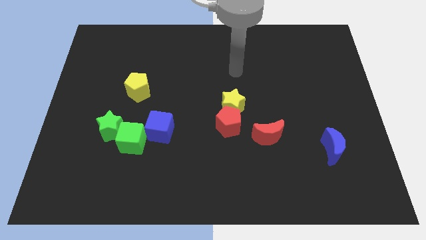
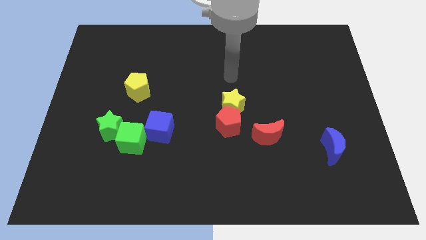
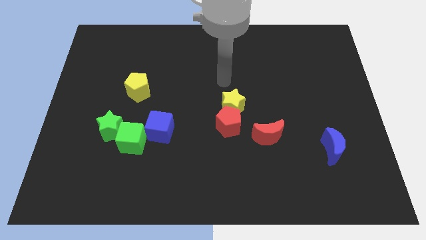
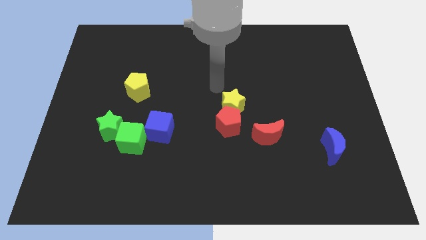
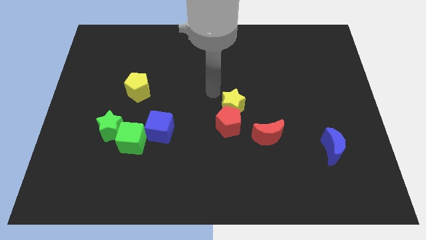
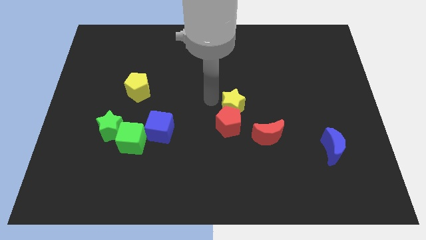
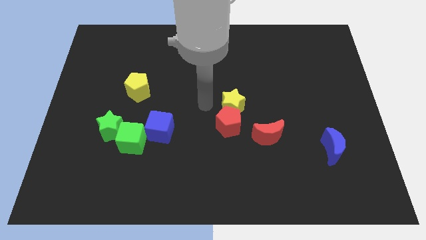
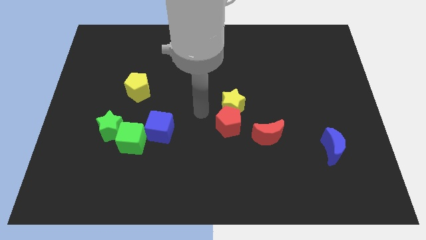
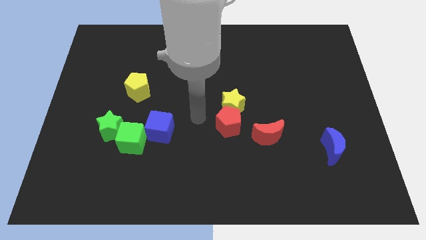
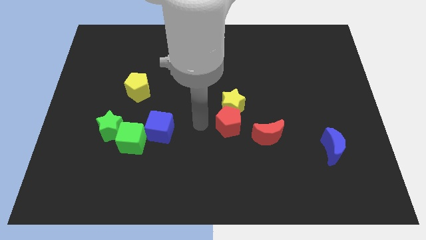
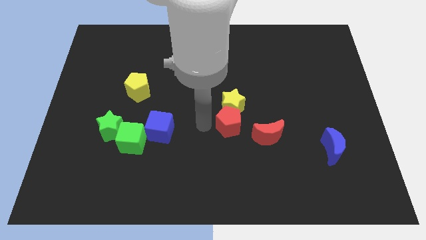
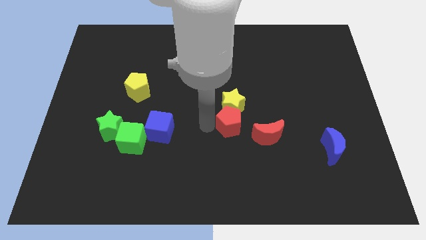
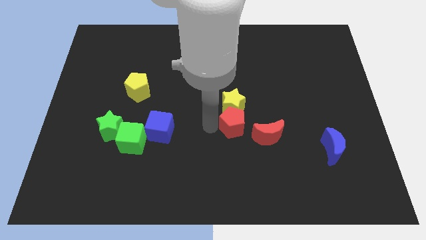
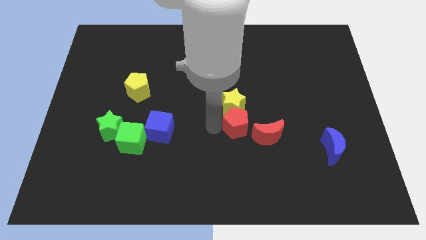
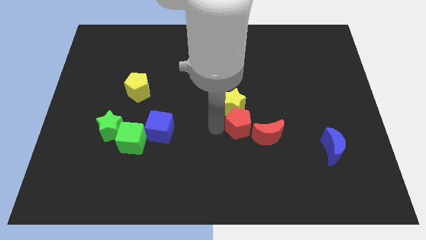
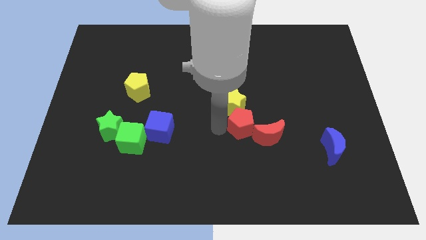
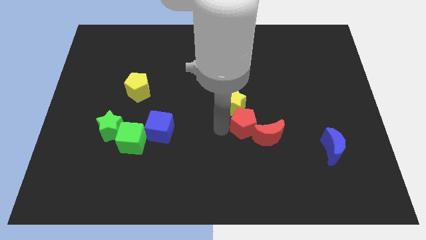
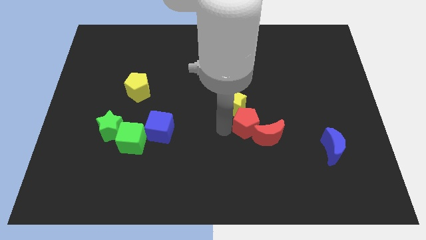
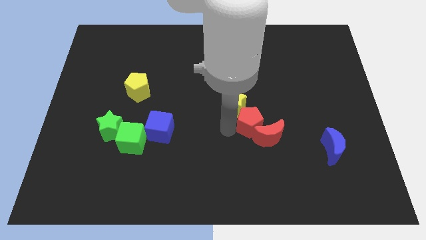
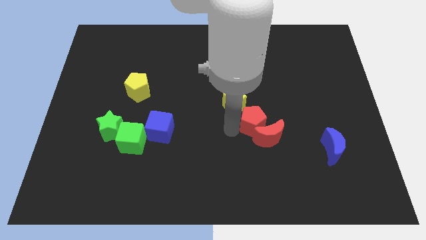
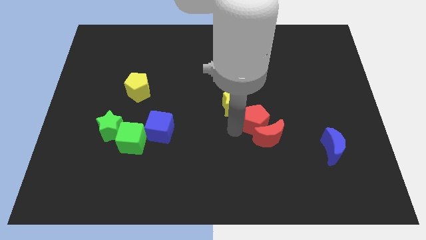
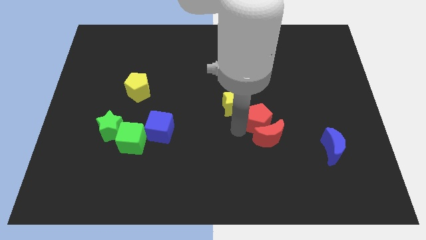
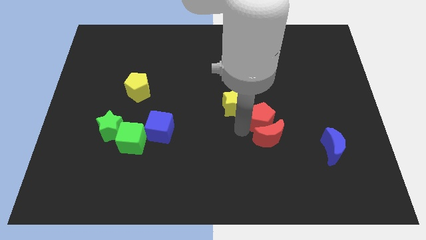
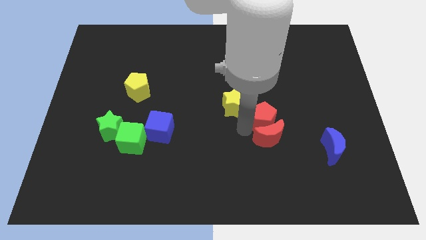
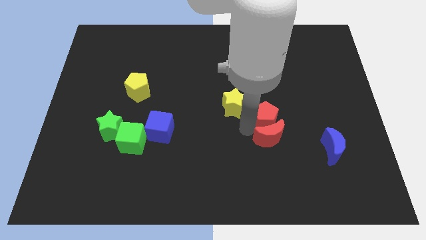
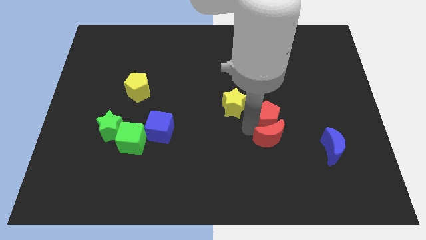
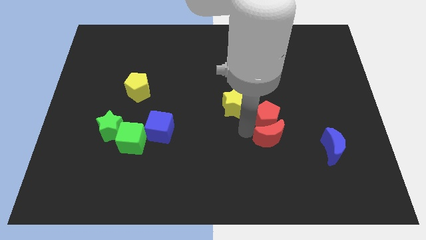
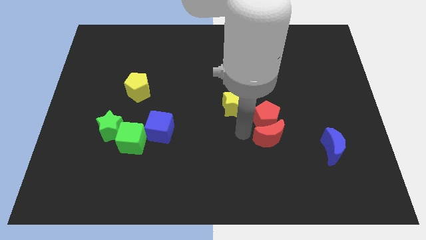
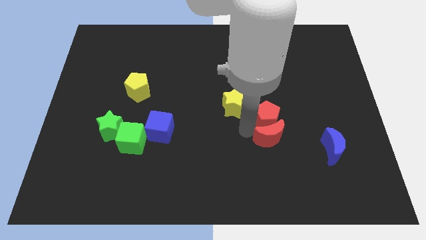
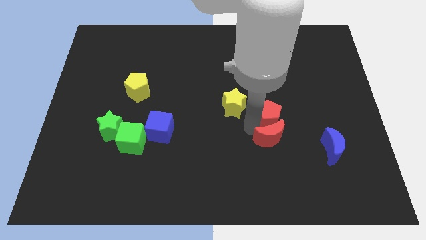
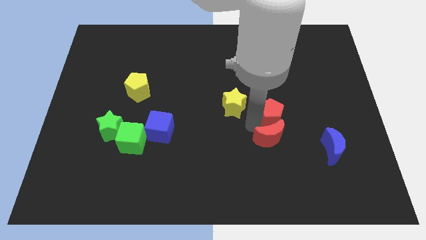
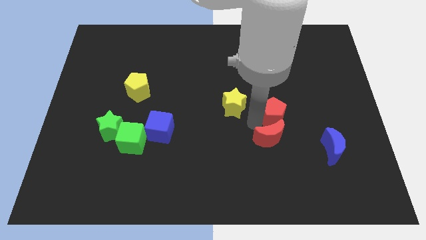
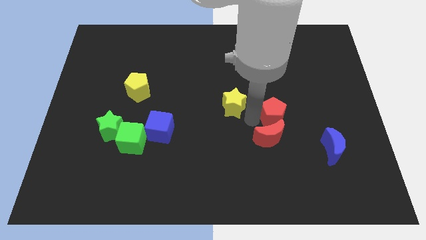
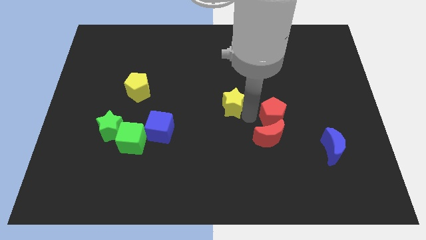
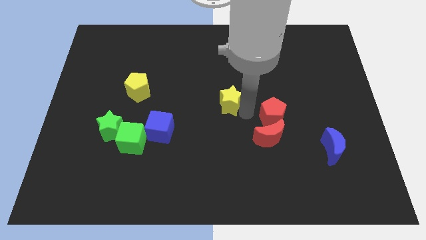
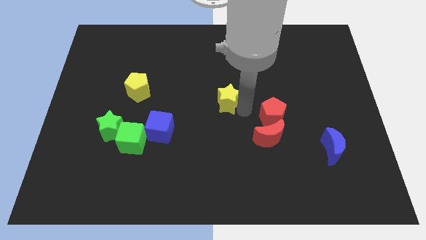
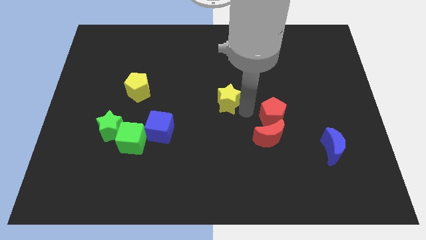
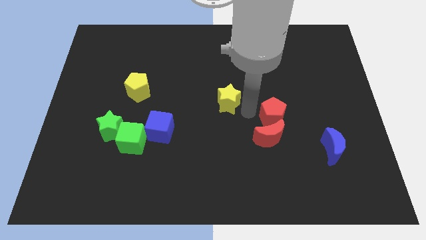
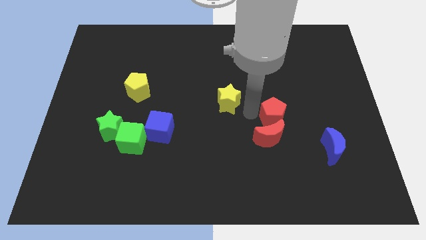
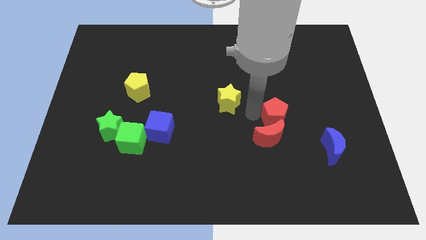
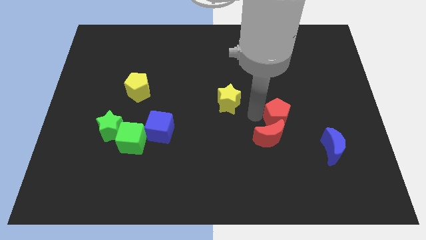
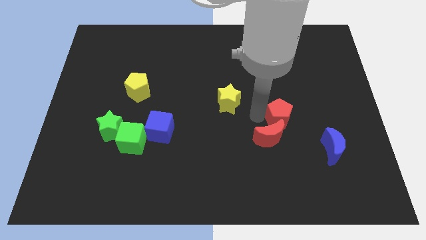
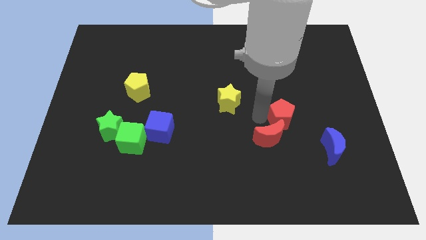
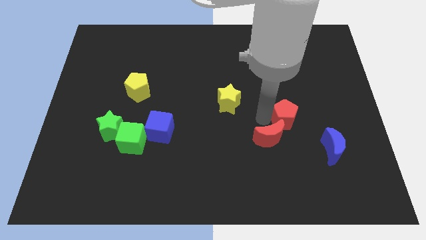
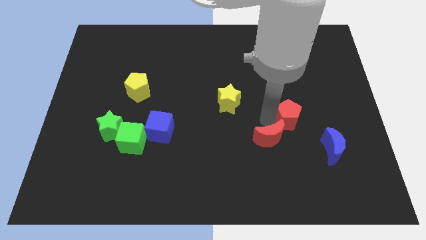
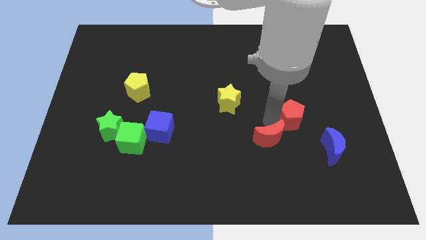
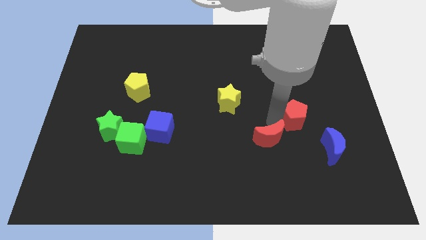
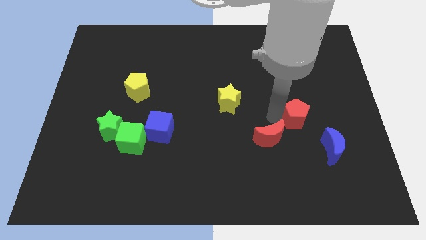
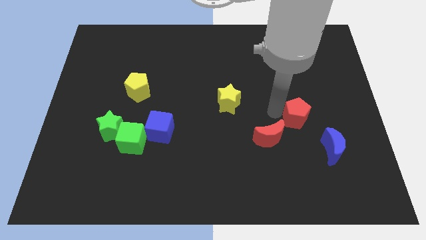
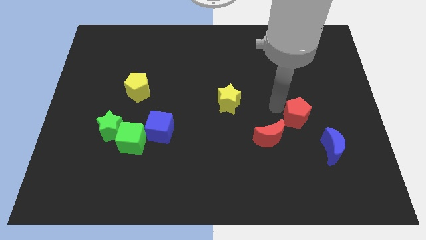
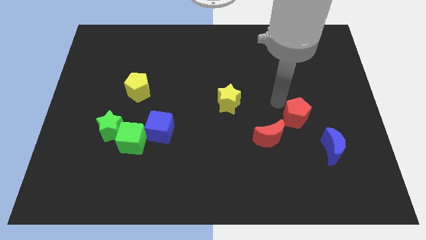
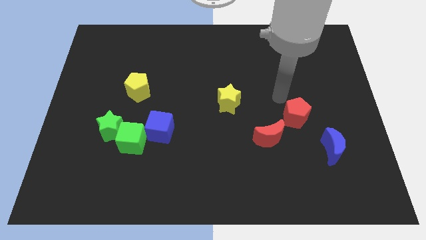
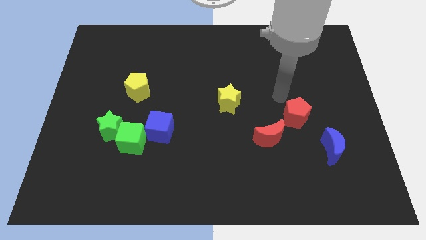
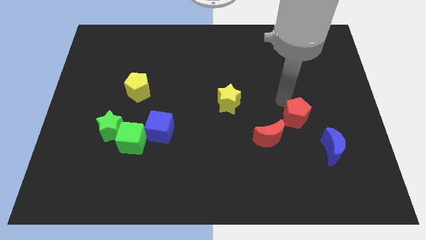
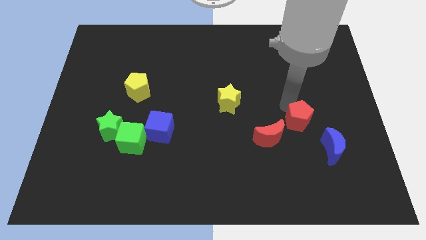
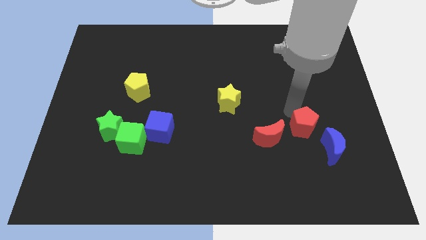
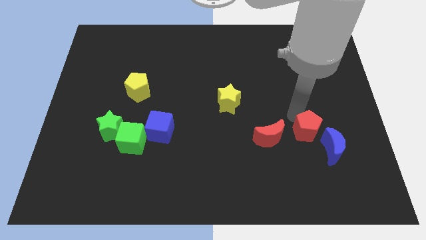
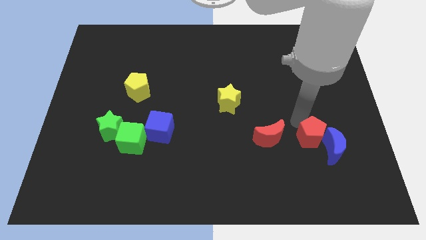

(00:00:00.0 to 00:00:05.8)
move the red pentagon close to the blue moon

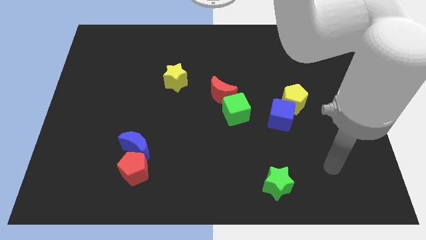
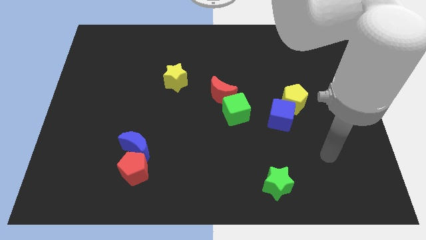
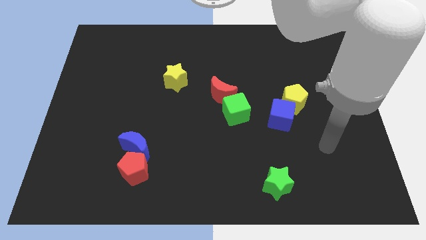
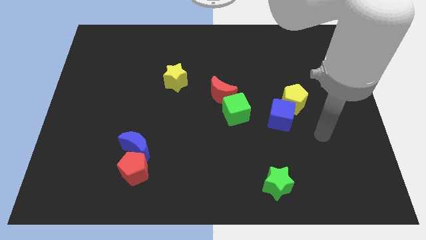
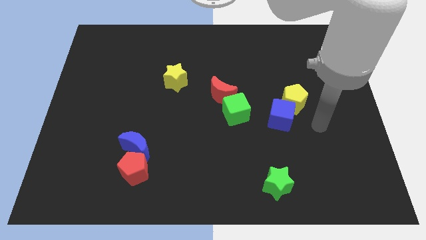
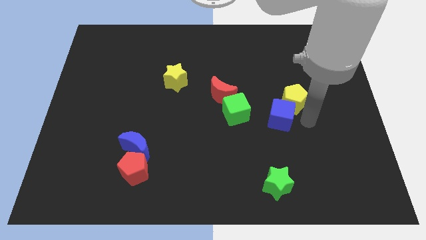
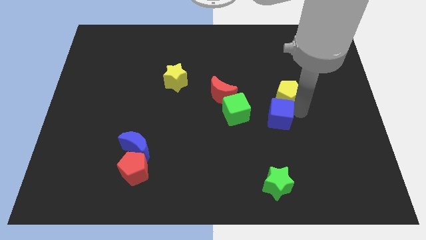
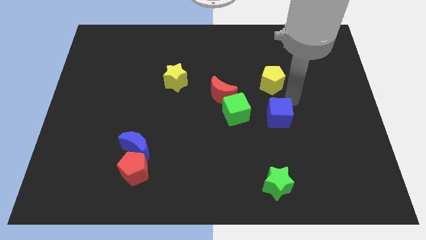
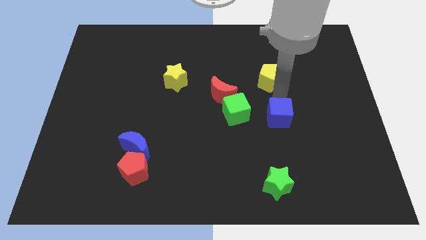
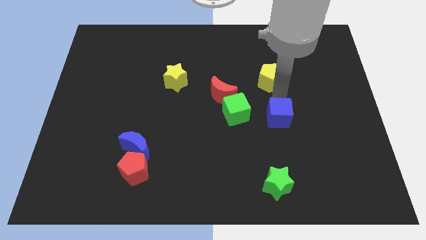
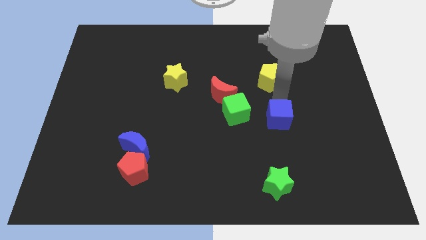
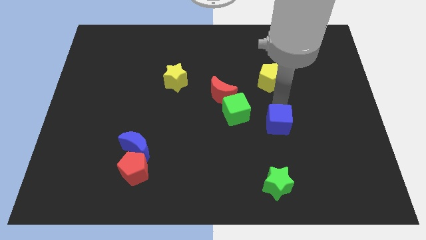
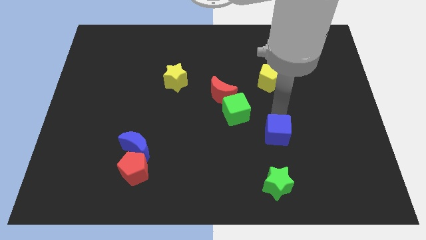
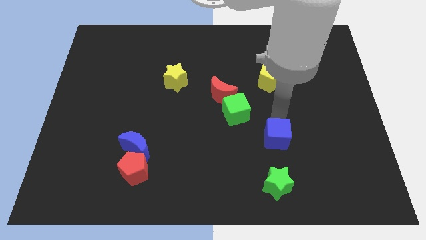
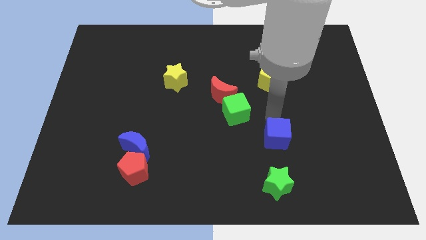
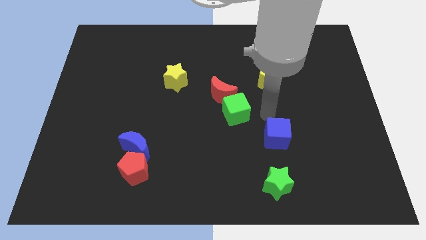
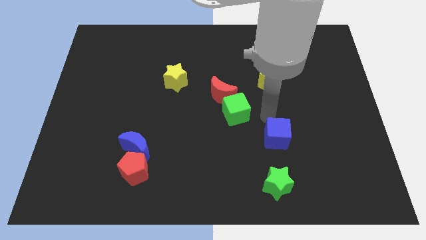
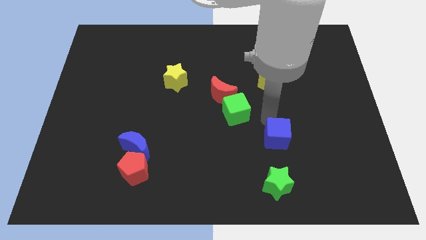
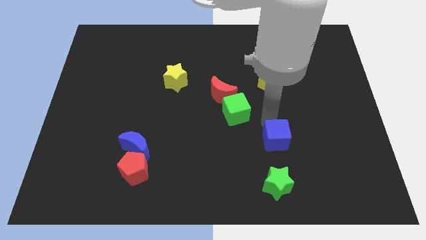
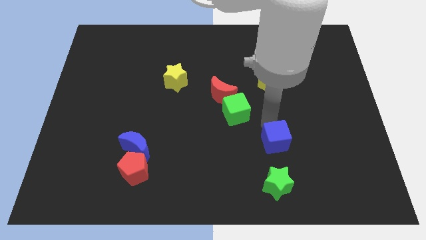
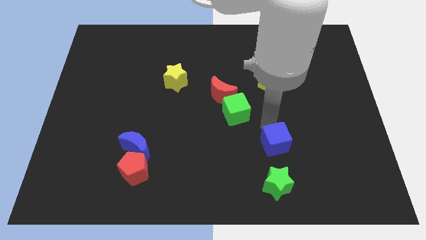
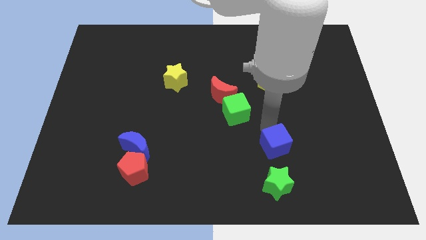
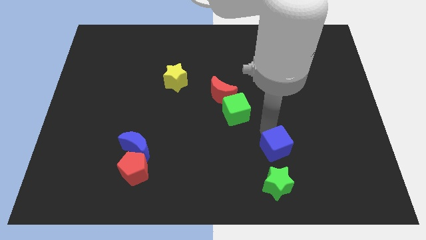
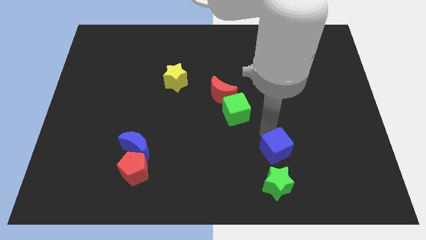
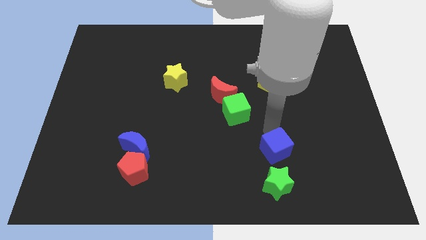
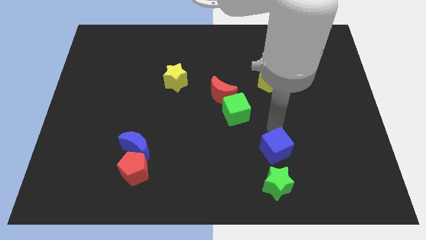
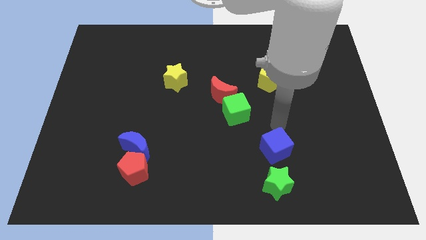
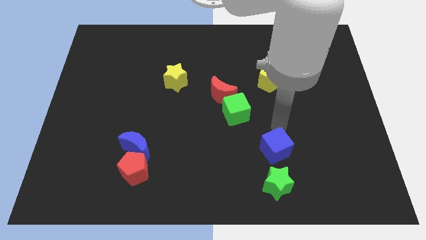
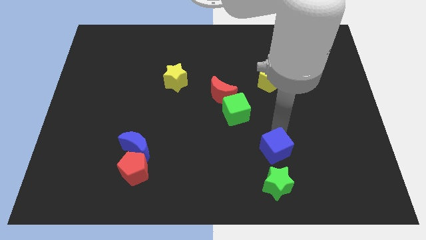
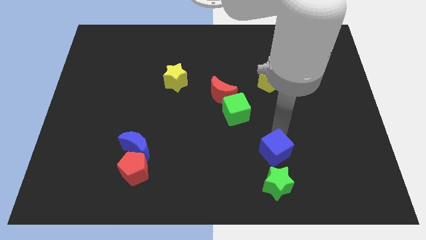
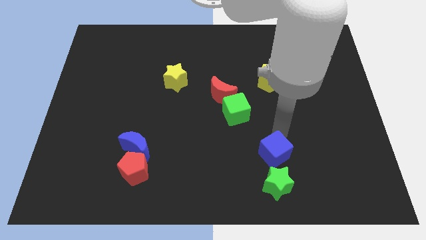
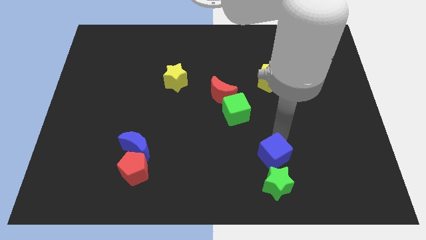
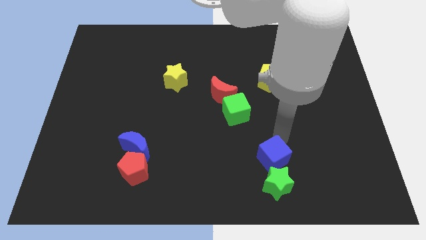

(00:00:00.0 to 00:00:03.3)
push the blue cube close to the green star
